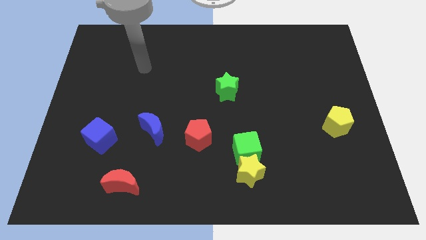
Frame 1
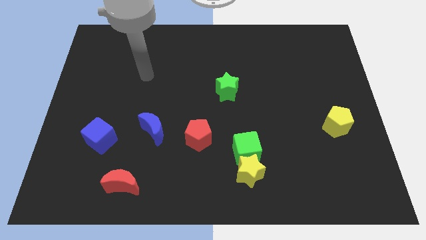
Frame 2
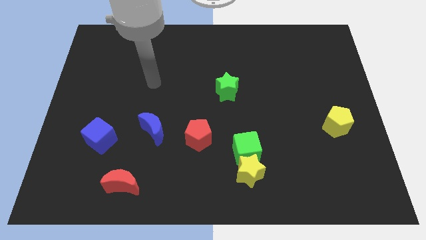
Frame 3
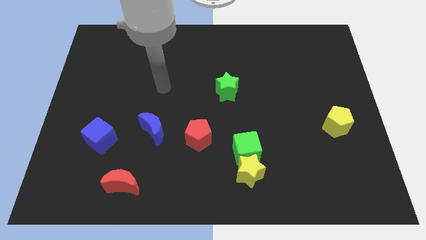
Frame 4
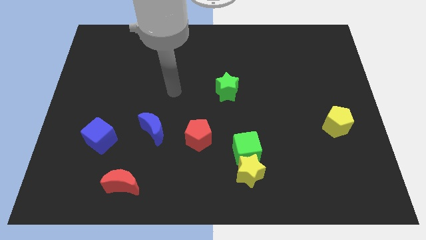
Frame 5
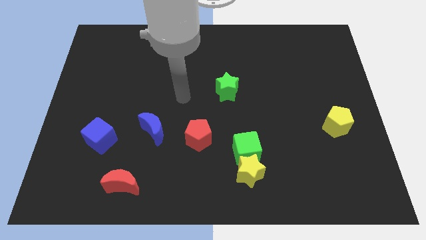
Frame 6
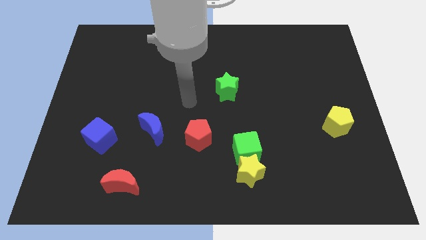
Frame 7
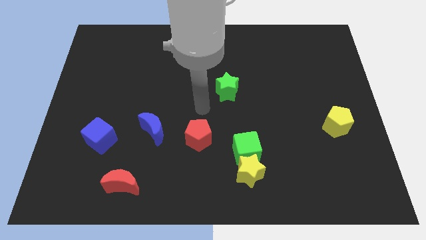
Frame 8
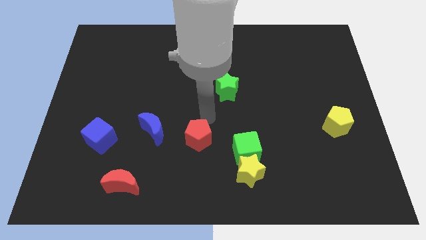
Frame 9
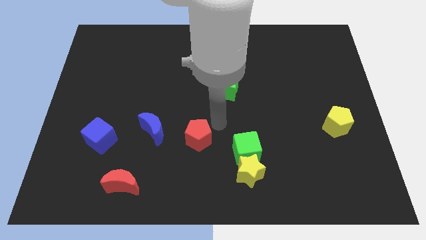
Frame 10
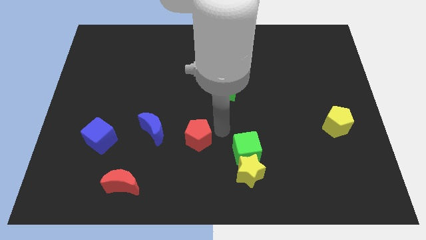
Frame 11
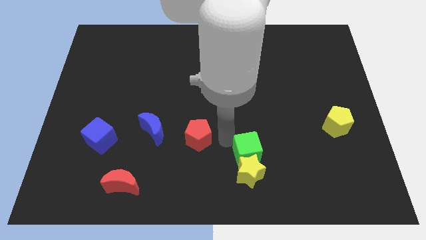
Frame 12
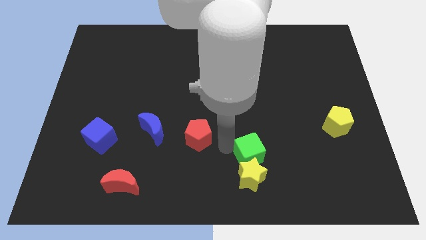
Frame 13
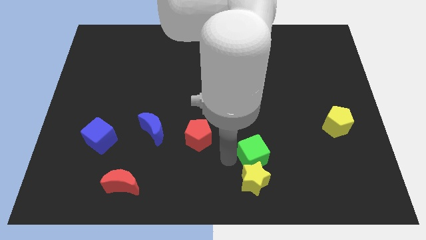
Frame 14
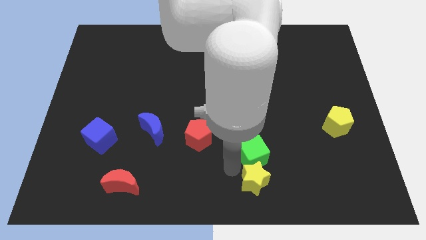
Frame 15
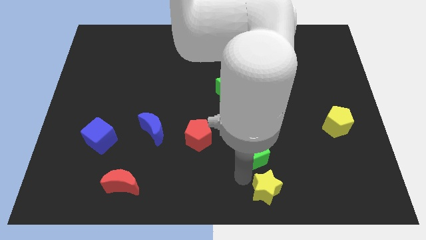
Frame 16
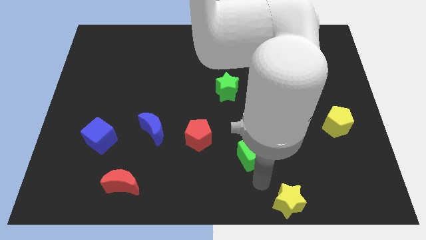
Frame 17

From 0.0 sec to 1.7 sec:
pull the green cube apart from the yellow star

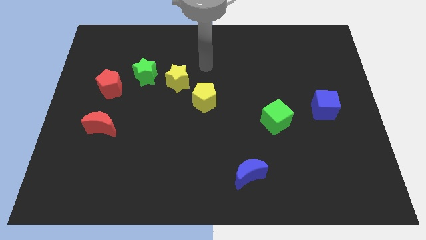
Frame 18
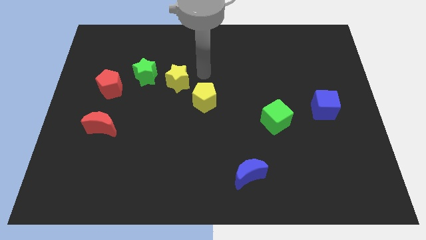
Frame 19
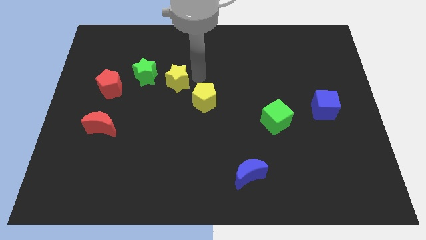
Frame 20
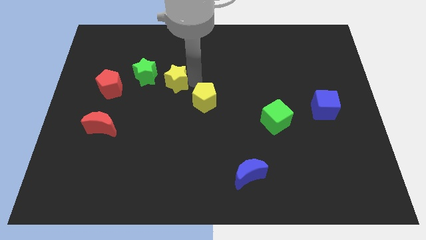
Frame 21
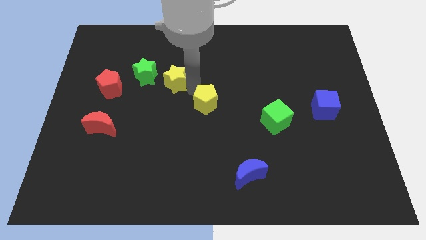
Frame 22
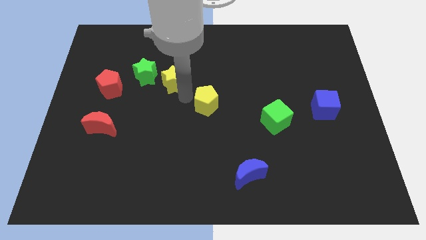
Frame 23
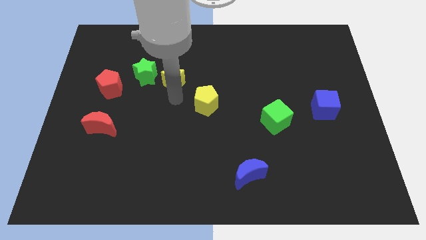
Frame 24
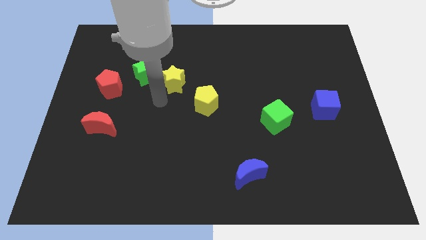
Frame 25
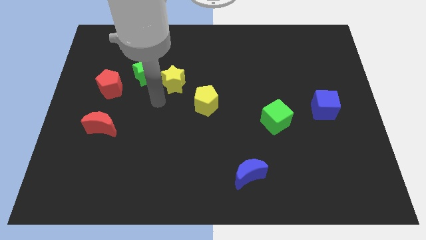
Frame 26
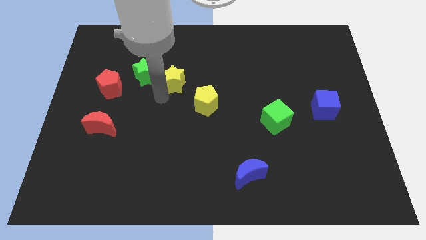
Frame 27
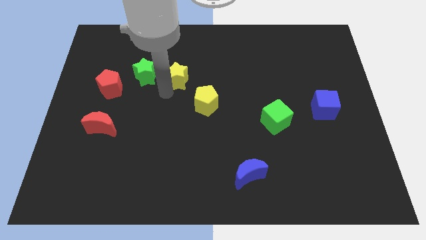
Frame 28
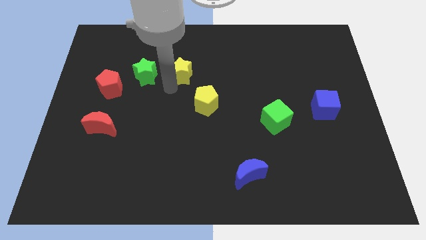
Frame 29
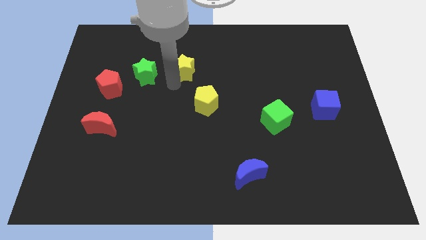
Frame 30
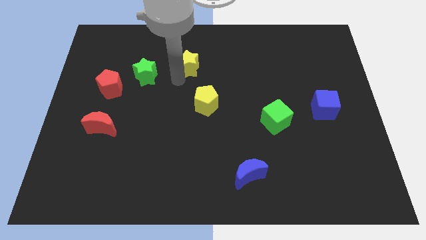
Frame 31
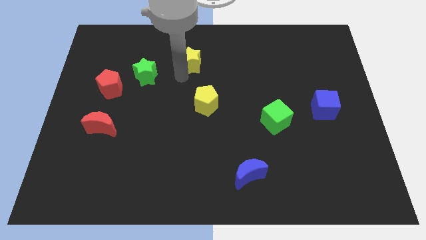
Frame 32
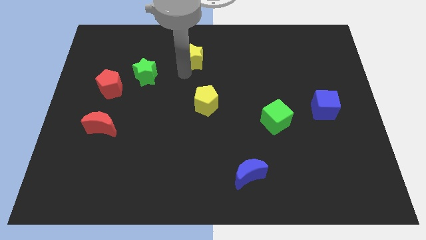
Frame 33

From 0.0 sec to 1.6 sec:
pull the yellow star apart from the green star and yellow pentagon

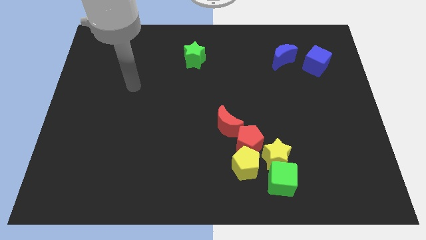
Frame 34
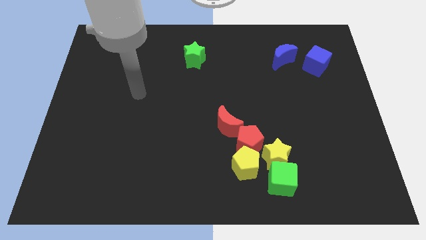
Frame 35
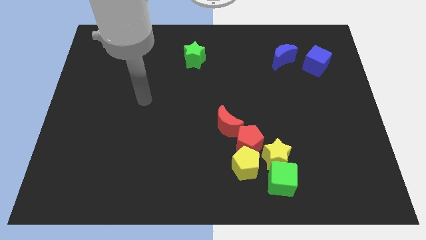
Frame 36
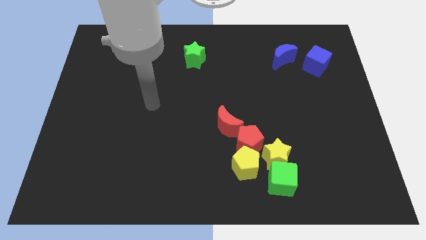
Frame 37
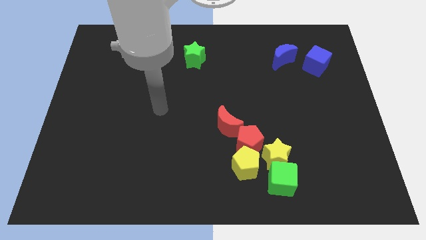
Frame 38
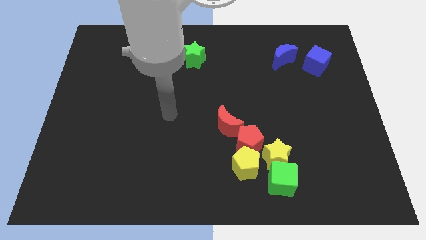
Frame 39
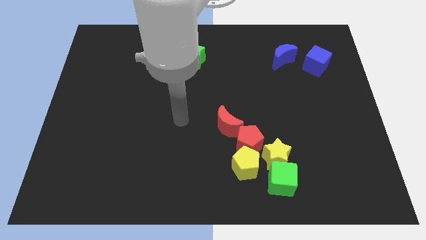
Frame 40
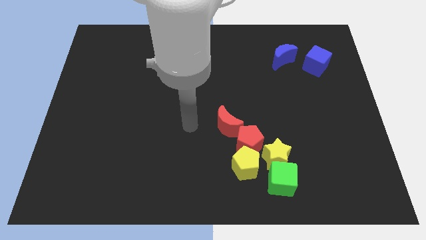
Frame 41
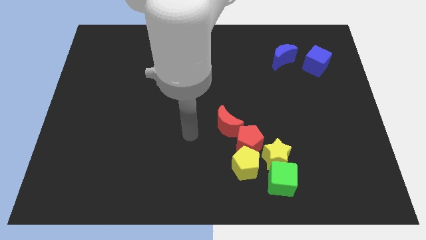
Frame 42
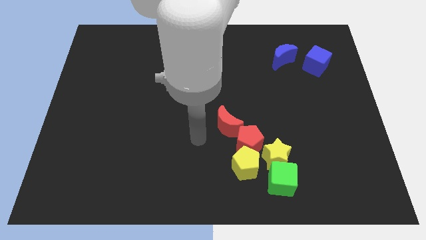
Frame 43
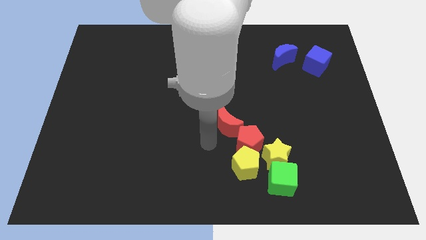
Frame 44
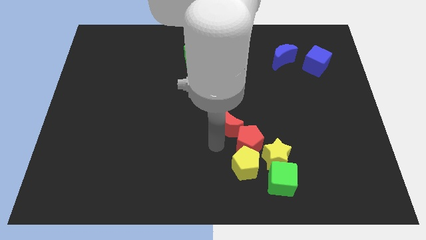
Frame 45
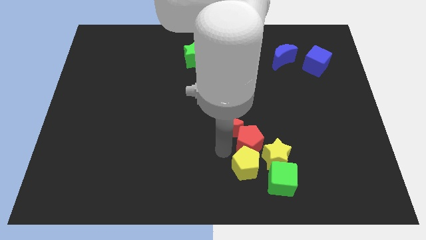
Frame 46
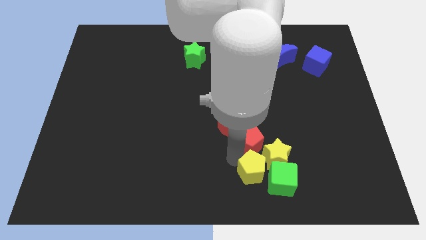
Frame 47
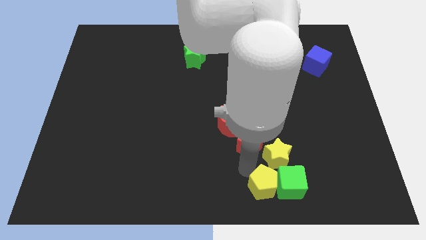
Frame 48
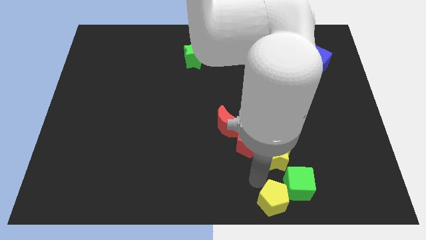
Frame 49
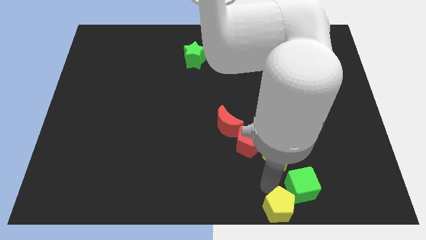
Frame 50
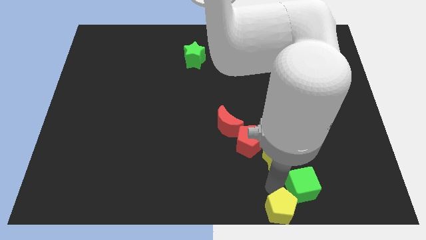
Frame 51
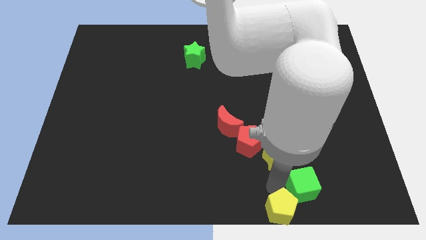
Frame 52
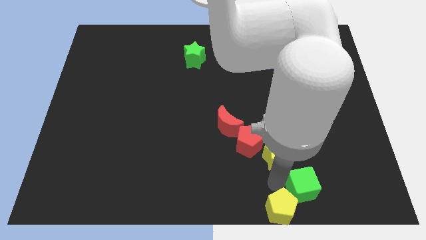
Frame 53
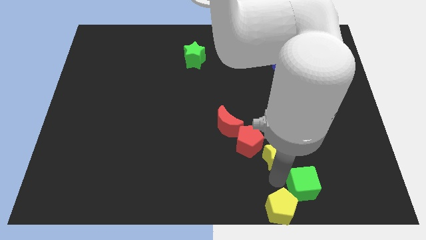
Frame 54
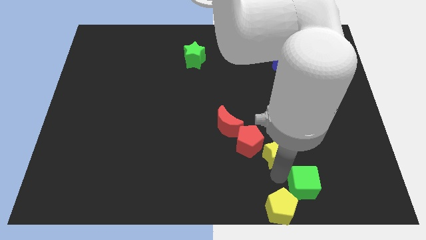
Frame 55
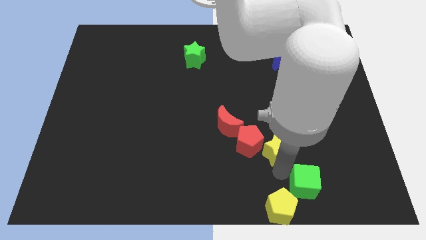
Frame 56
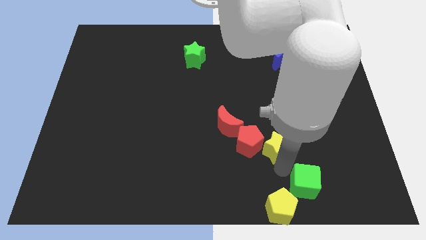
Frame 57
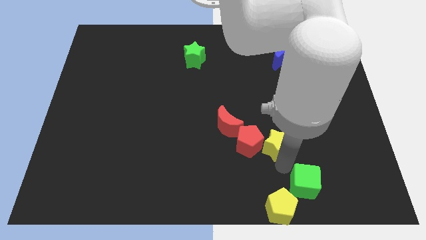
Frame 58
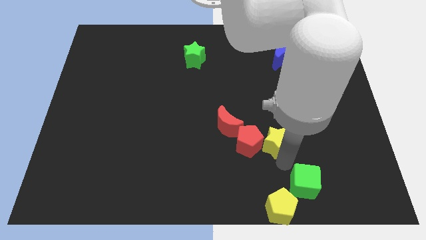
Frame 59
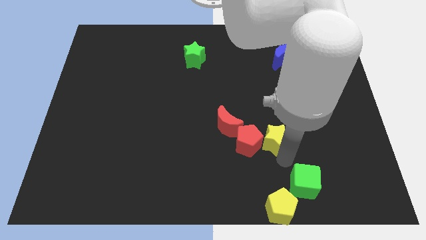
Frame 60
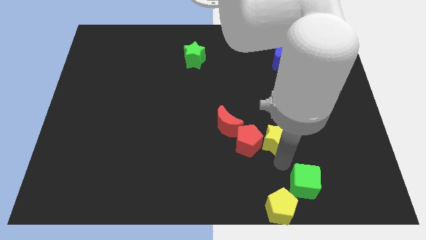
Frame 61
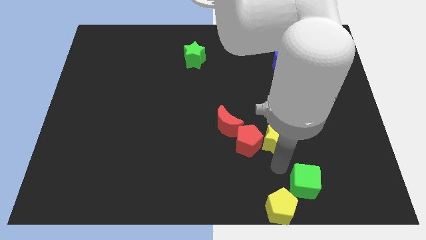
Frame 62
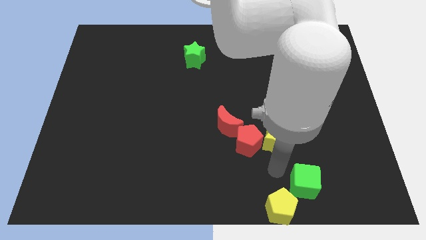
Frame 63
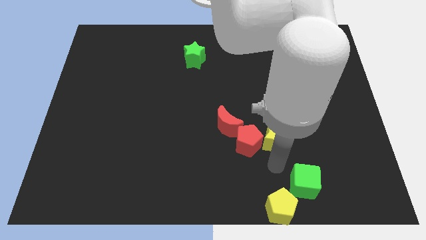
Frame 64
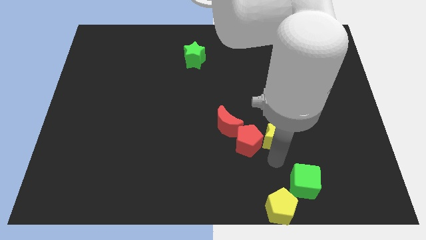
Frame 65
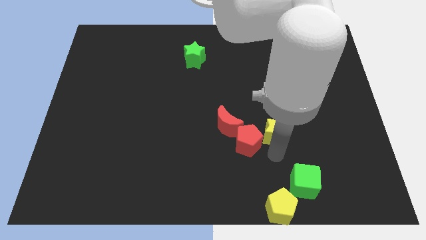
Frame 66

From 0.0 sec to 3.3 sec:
separate the yellow star from the green cube, red pentagon, and yellow pentagon

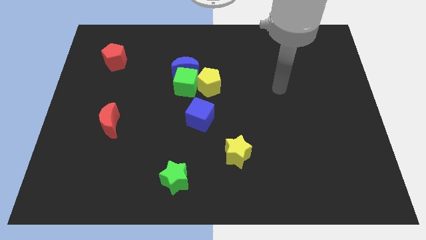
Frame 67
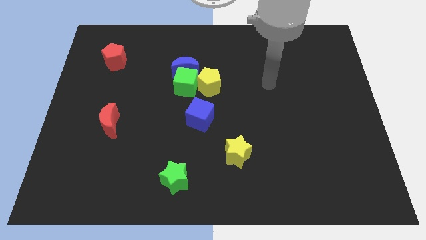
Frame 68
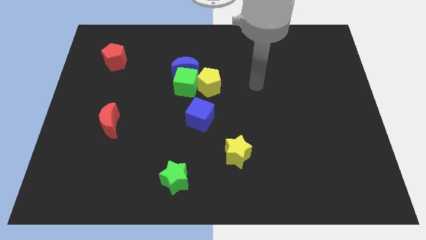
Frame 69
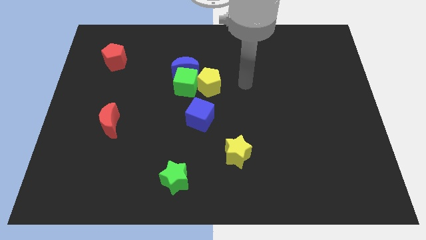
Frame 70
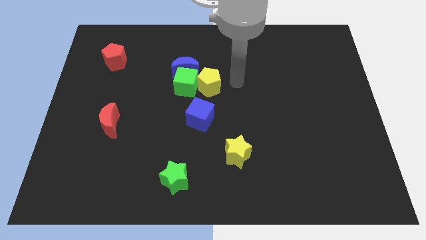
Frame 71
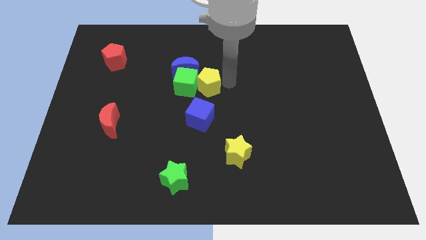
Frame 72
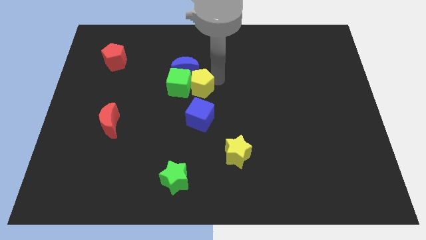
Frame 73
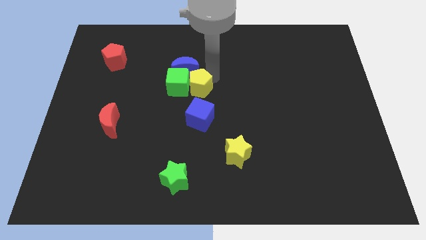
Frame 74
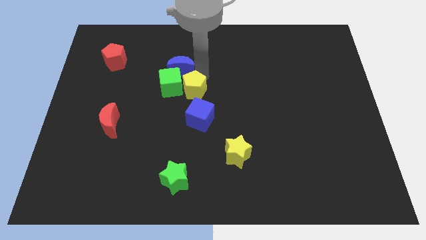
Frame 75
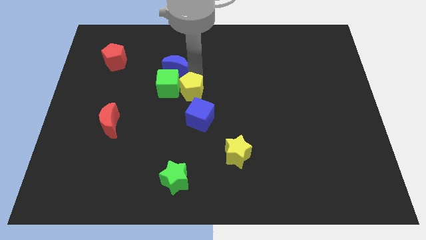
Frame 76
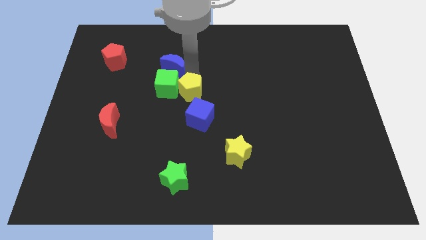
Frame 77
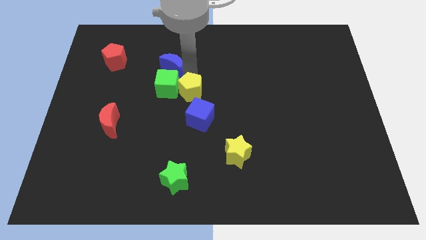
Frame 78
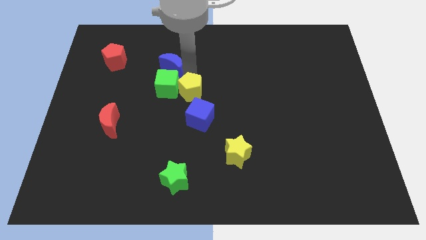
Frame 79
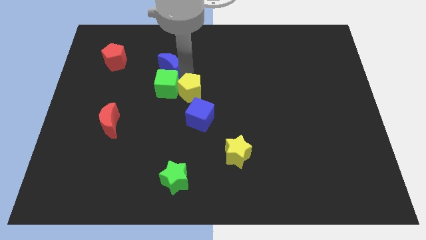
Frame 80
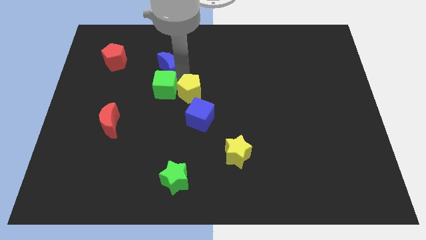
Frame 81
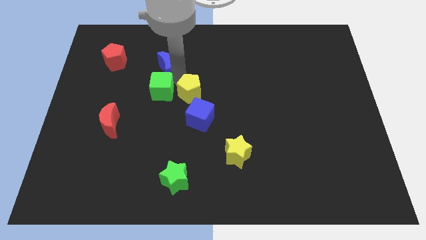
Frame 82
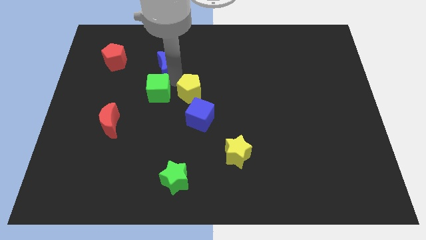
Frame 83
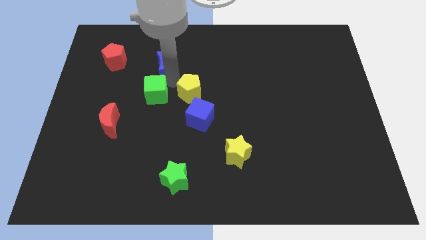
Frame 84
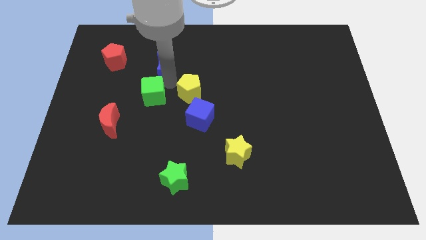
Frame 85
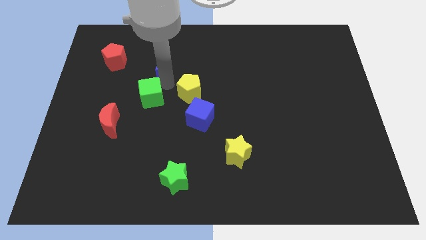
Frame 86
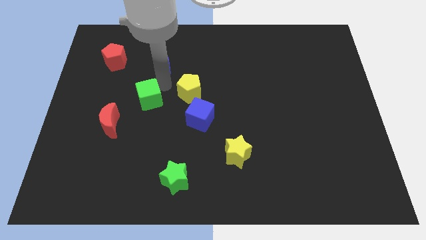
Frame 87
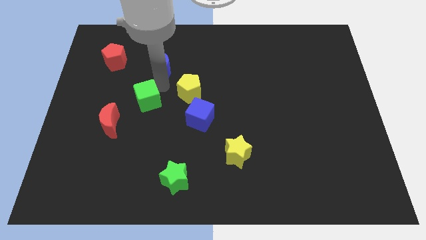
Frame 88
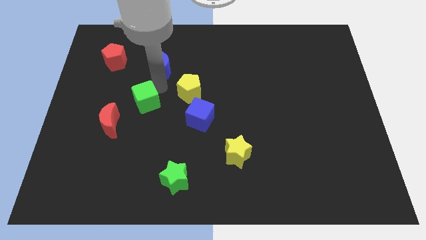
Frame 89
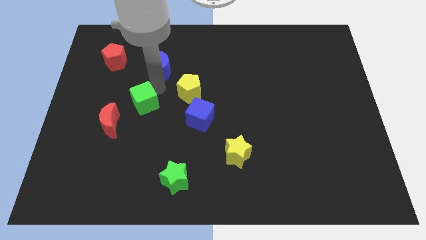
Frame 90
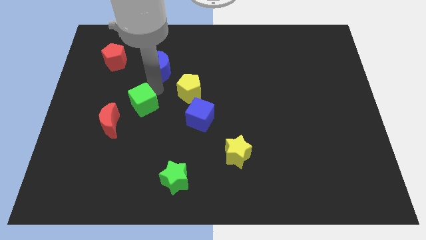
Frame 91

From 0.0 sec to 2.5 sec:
pull the green cube apart from the blue moon and yellow pentagon
